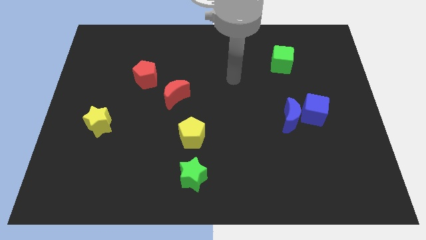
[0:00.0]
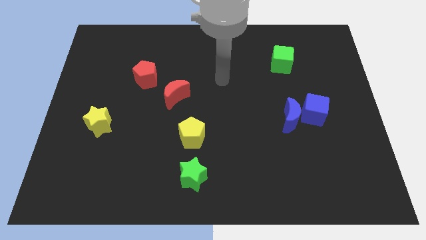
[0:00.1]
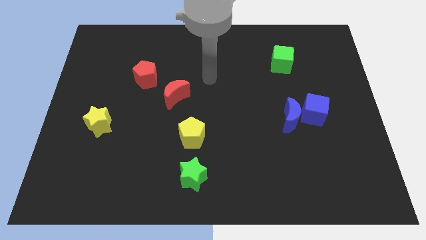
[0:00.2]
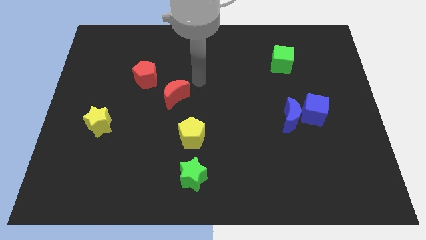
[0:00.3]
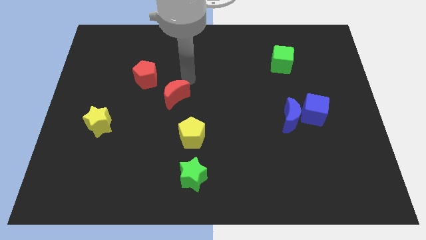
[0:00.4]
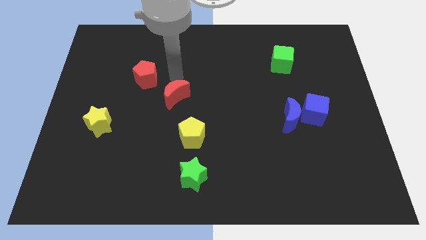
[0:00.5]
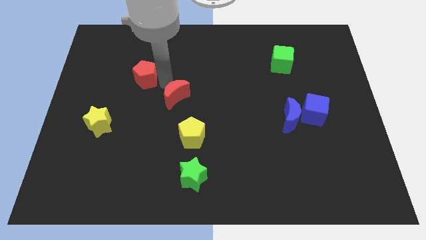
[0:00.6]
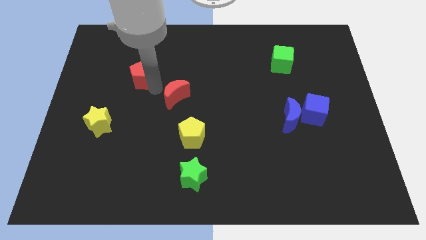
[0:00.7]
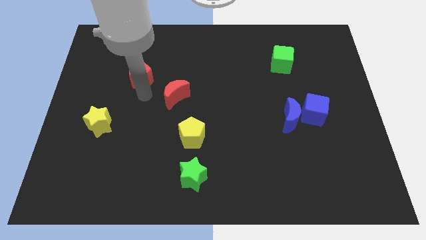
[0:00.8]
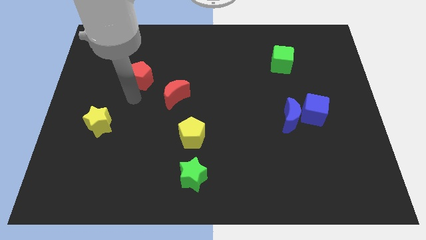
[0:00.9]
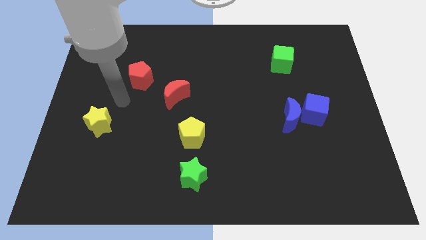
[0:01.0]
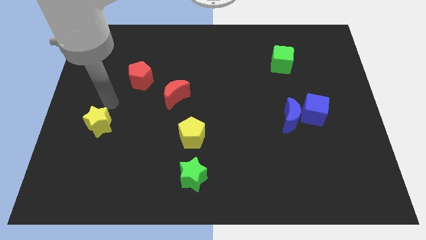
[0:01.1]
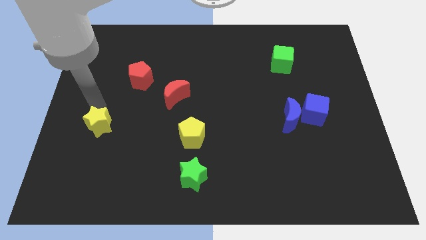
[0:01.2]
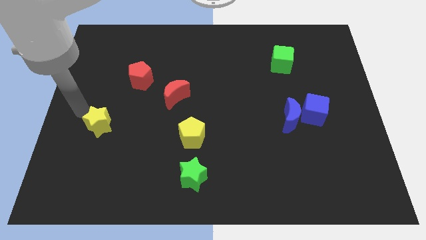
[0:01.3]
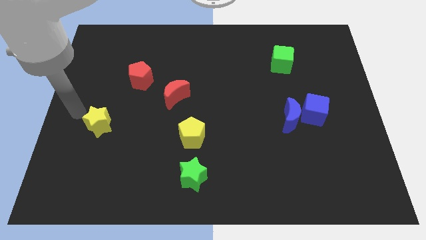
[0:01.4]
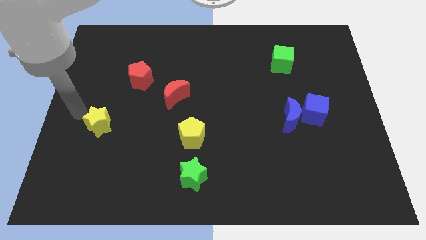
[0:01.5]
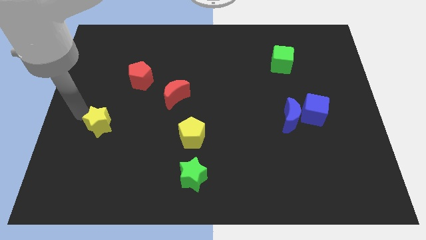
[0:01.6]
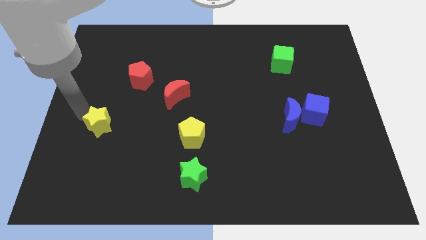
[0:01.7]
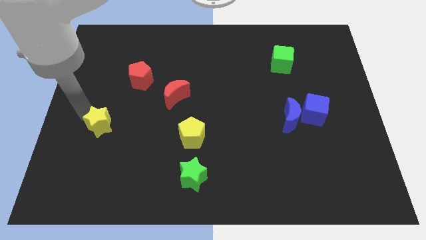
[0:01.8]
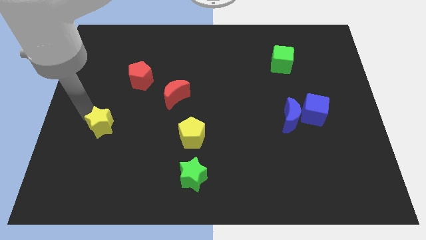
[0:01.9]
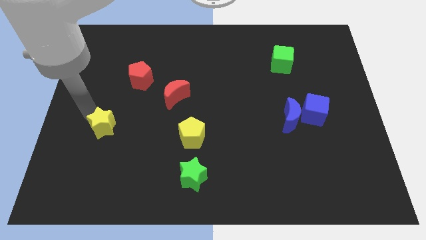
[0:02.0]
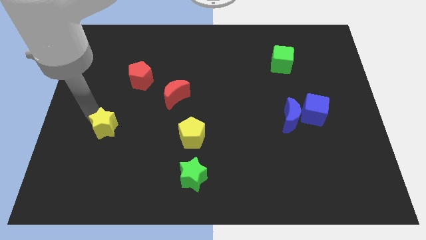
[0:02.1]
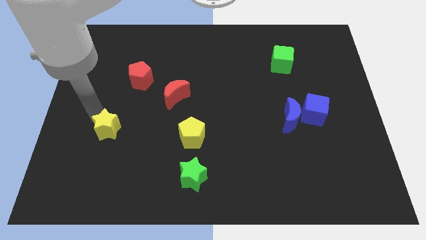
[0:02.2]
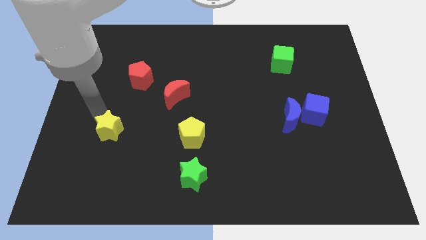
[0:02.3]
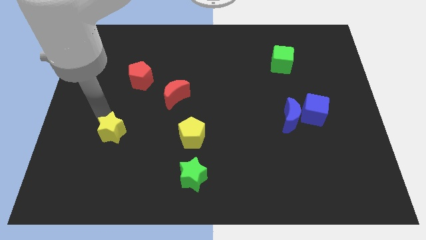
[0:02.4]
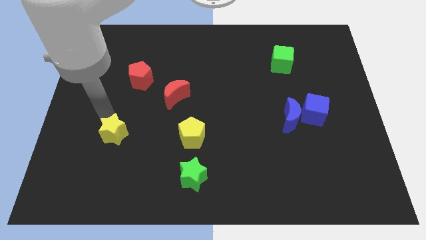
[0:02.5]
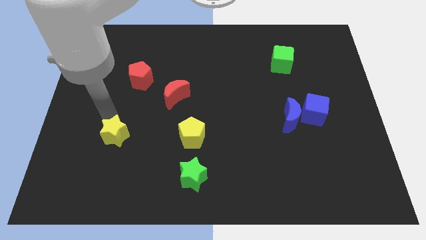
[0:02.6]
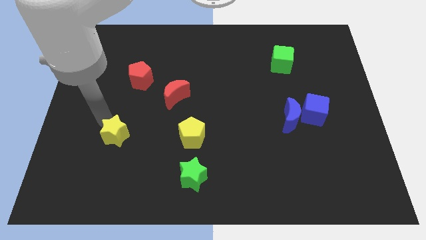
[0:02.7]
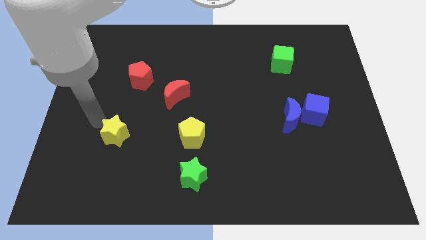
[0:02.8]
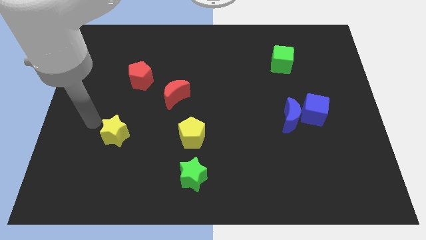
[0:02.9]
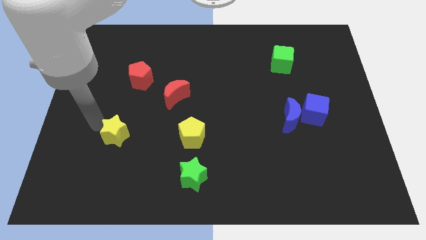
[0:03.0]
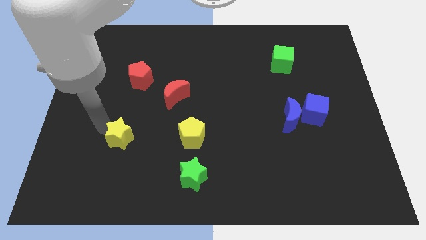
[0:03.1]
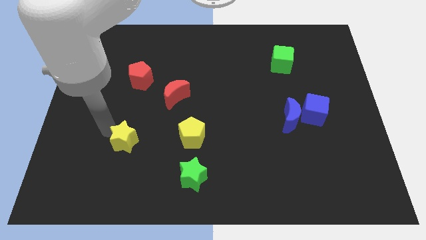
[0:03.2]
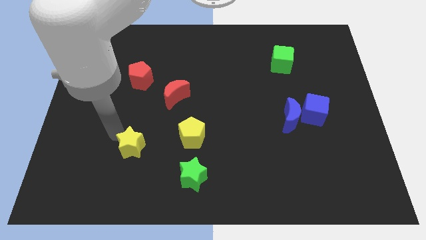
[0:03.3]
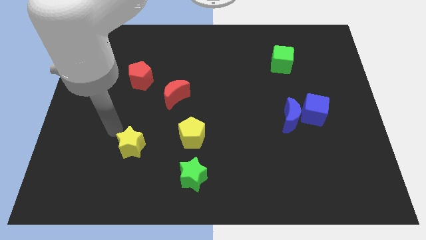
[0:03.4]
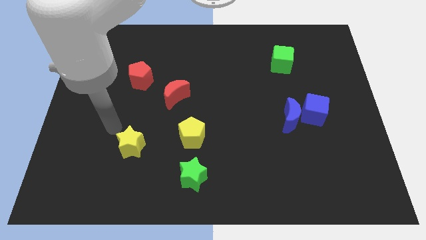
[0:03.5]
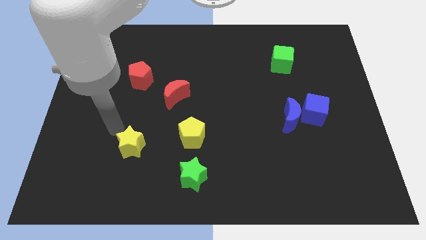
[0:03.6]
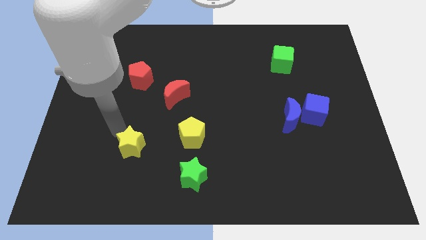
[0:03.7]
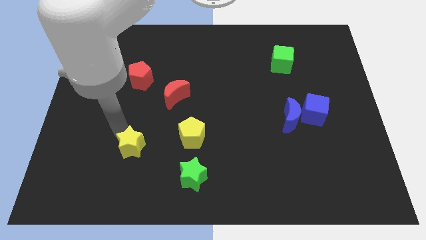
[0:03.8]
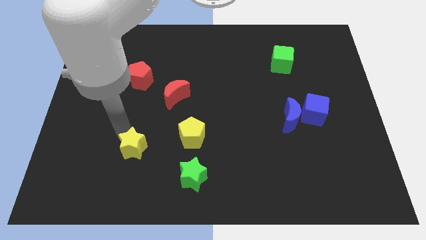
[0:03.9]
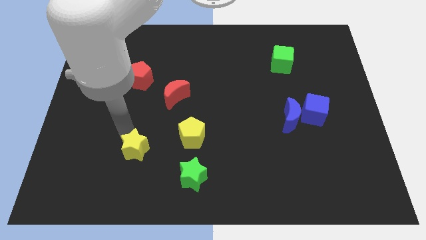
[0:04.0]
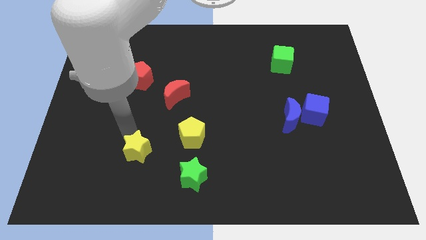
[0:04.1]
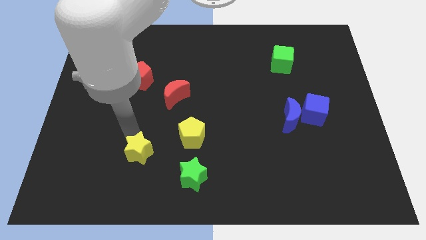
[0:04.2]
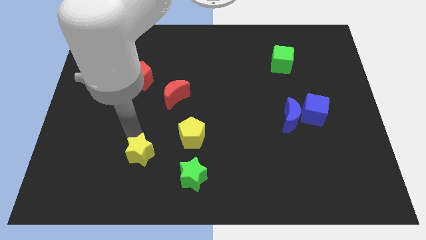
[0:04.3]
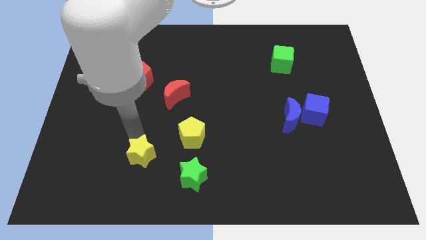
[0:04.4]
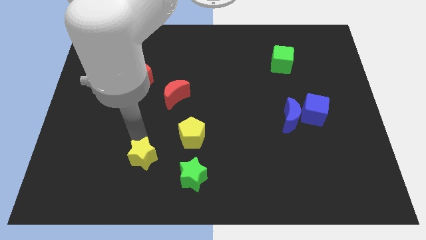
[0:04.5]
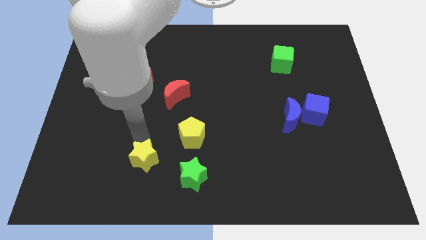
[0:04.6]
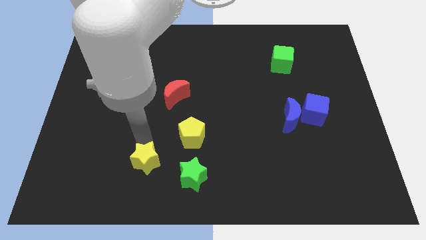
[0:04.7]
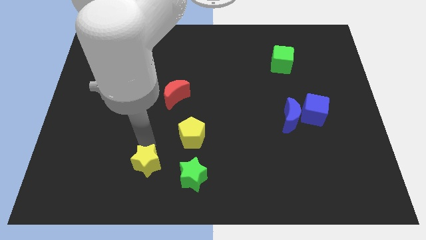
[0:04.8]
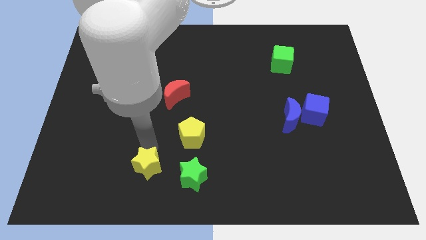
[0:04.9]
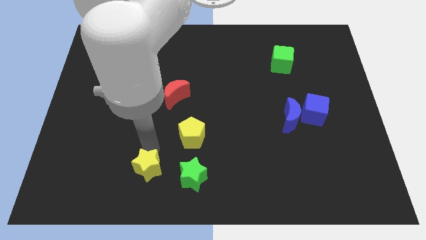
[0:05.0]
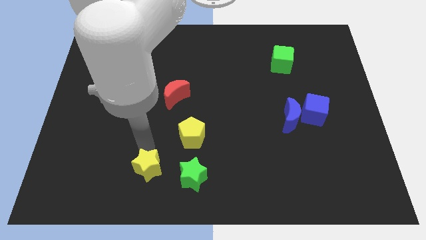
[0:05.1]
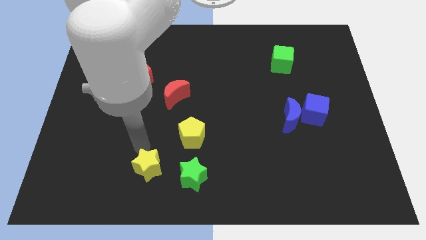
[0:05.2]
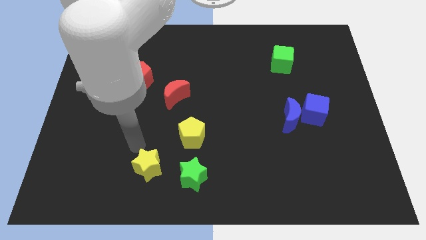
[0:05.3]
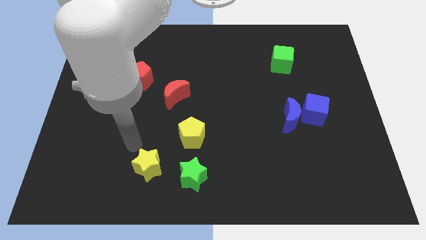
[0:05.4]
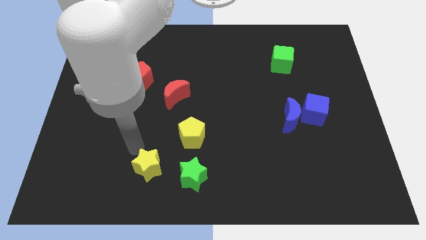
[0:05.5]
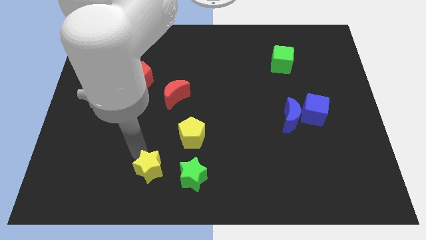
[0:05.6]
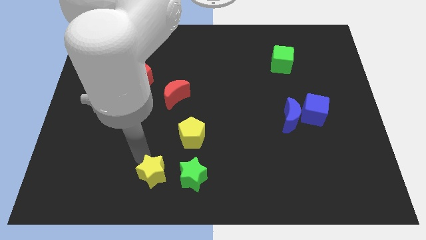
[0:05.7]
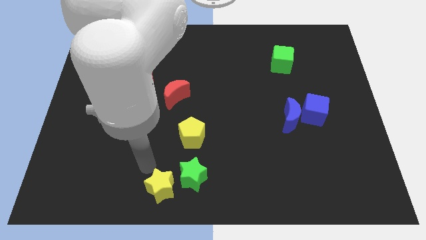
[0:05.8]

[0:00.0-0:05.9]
move the yellow star to the bottom

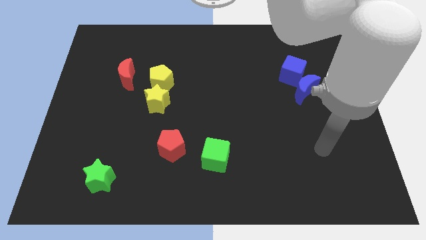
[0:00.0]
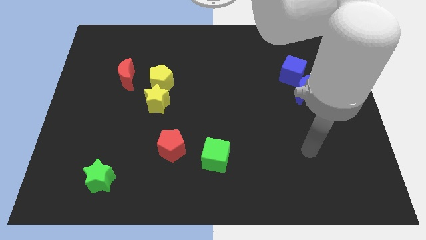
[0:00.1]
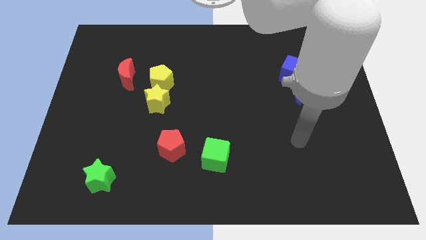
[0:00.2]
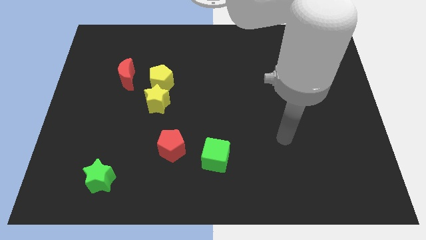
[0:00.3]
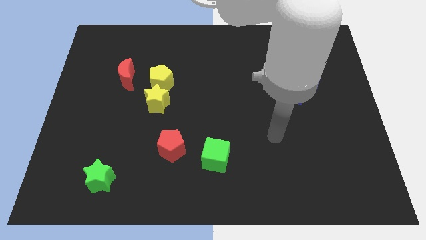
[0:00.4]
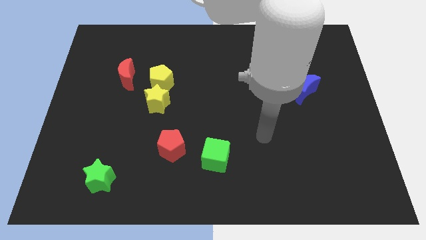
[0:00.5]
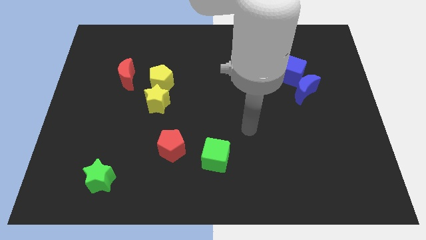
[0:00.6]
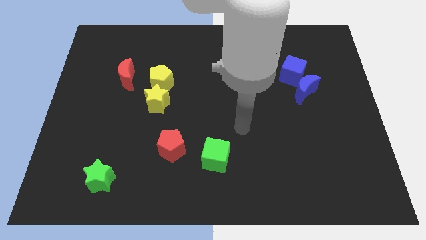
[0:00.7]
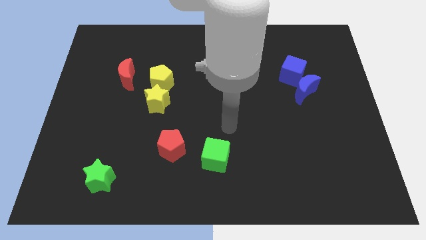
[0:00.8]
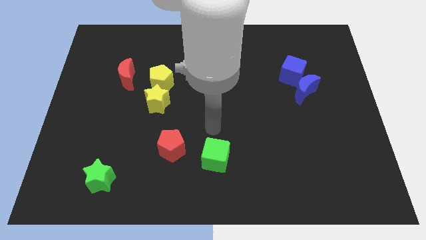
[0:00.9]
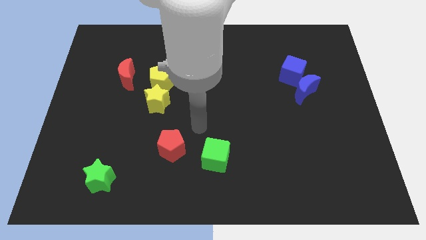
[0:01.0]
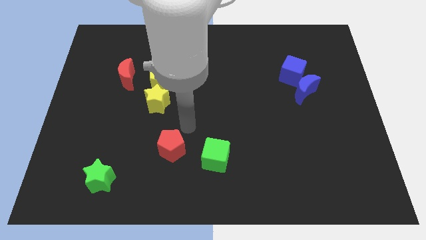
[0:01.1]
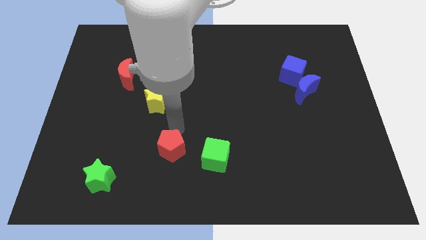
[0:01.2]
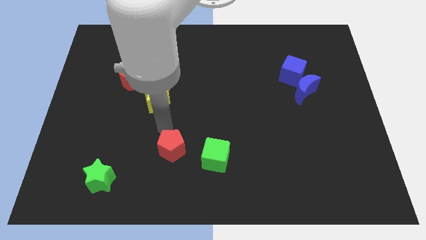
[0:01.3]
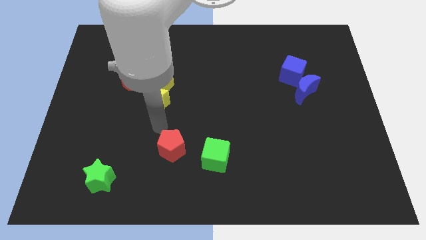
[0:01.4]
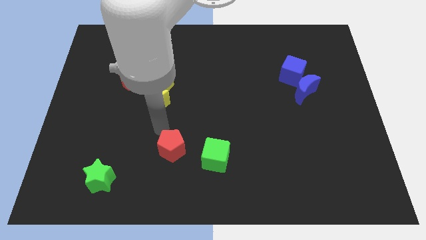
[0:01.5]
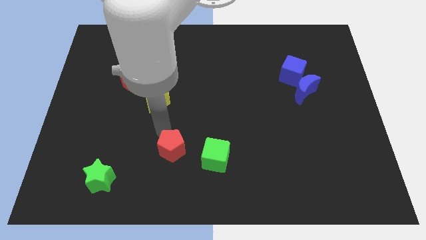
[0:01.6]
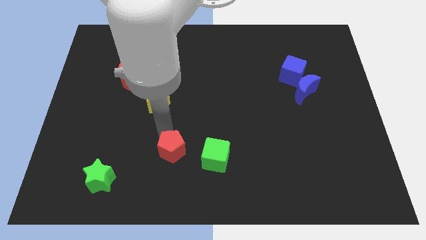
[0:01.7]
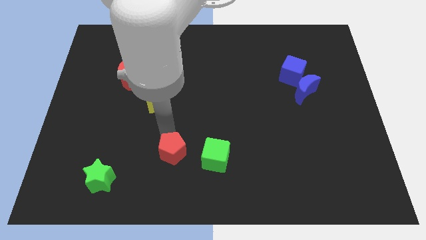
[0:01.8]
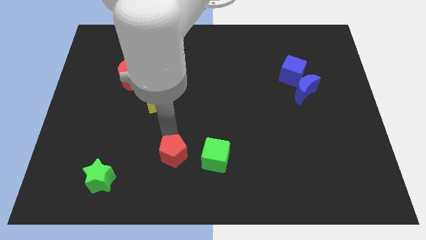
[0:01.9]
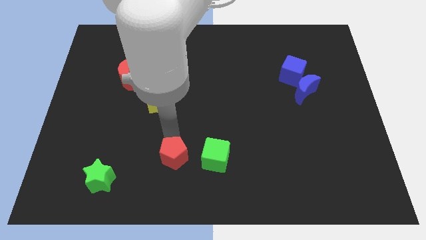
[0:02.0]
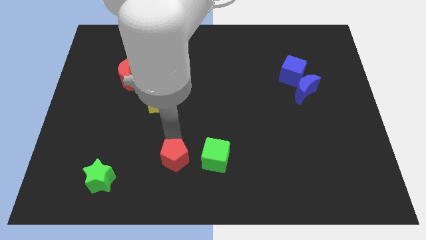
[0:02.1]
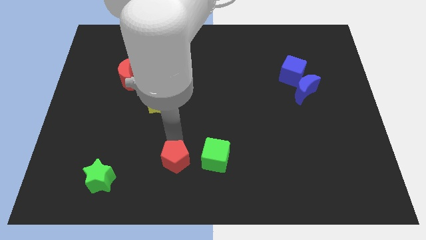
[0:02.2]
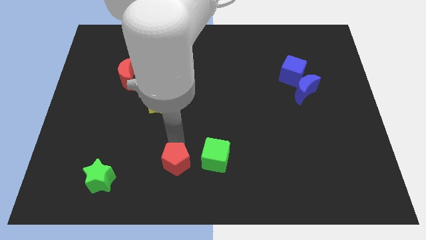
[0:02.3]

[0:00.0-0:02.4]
push the red pentagon to the bottom
